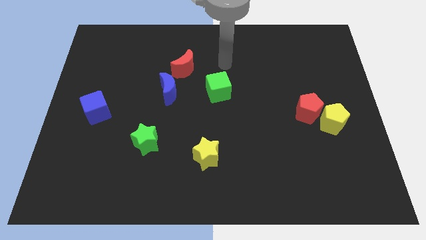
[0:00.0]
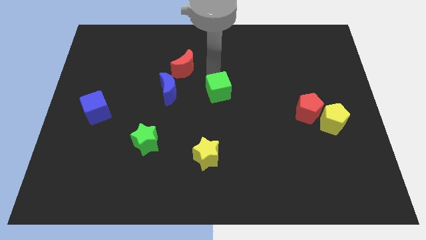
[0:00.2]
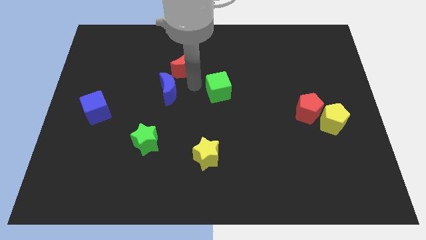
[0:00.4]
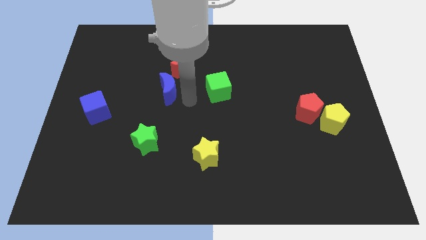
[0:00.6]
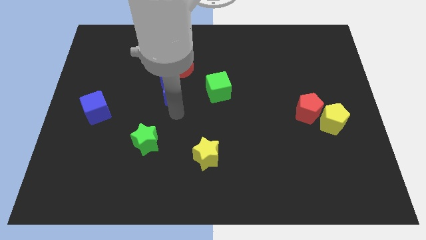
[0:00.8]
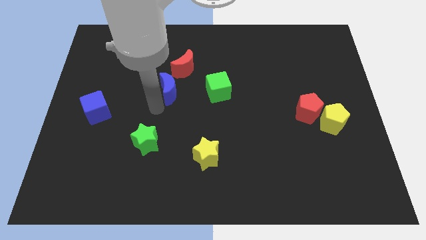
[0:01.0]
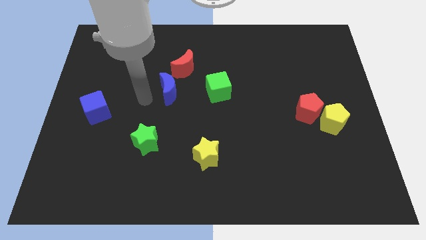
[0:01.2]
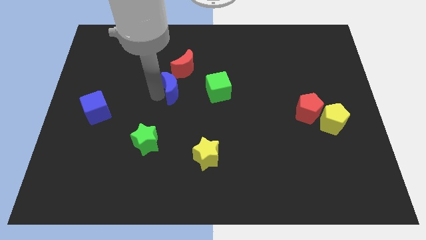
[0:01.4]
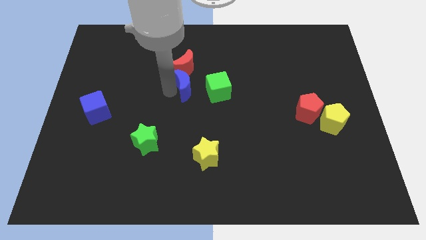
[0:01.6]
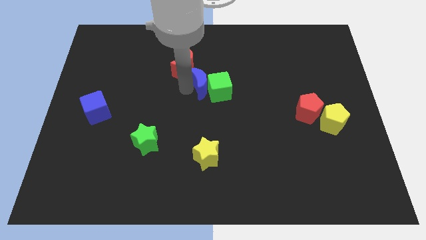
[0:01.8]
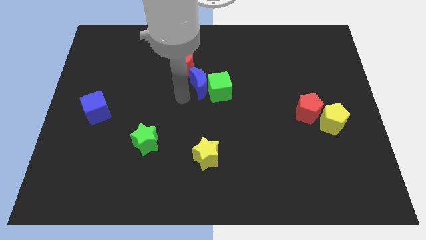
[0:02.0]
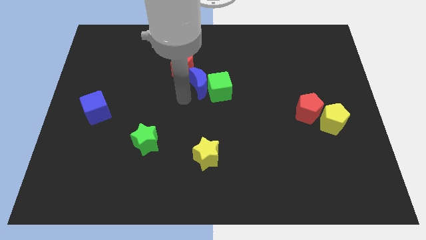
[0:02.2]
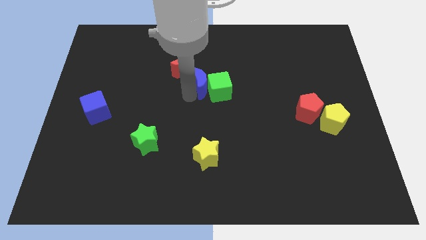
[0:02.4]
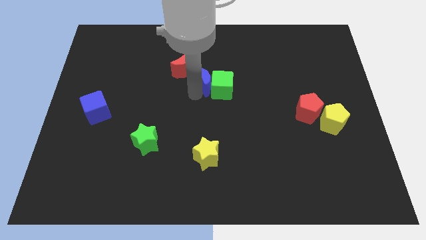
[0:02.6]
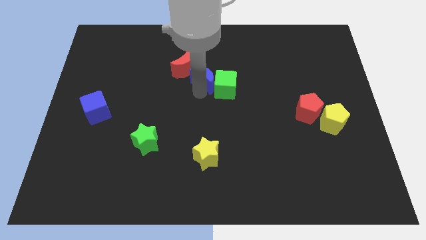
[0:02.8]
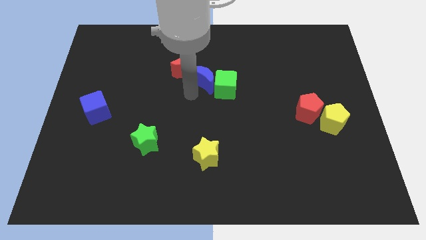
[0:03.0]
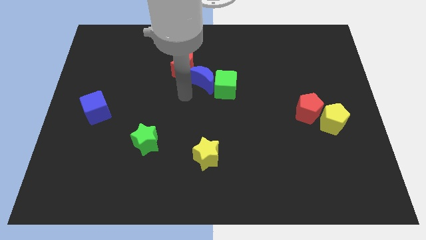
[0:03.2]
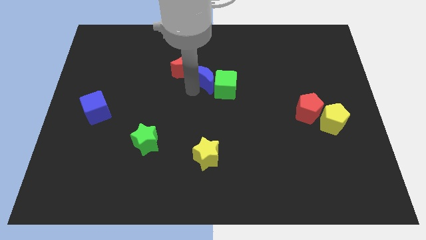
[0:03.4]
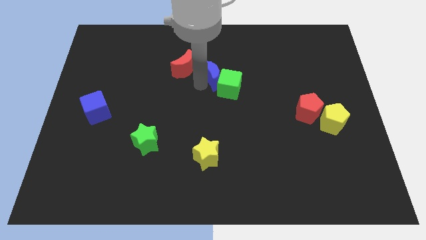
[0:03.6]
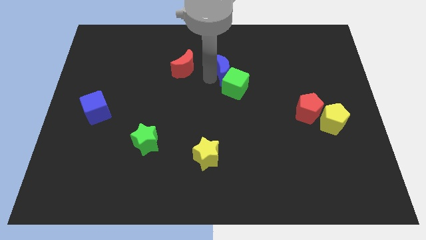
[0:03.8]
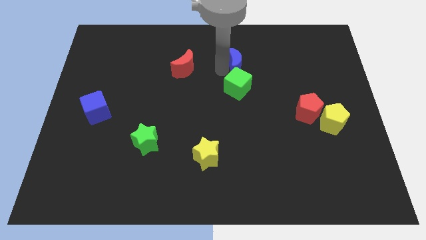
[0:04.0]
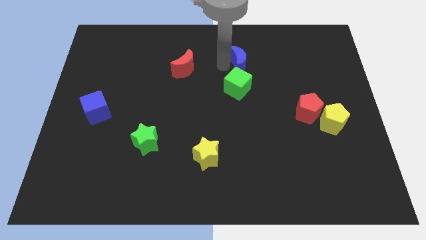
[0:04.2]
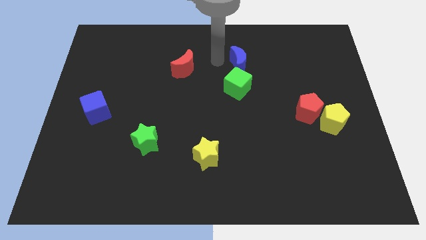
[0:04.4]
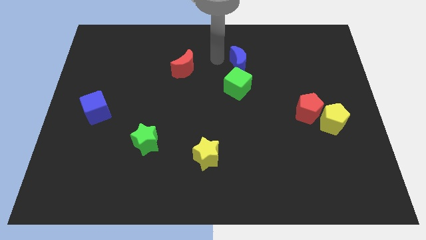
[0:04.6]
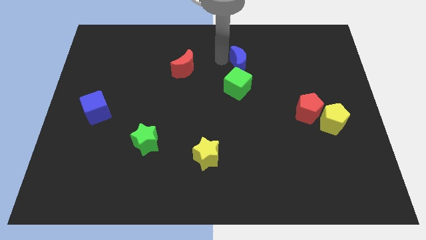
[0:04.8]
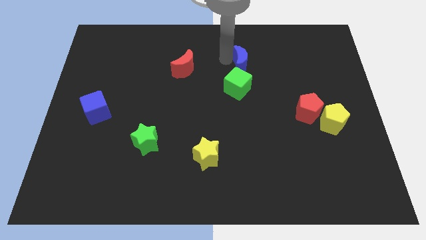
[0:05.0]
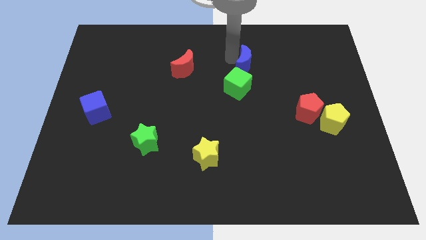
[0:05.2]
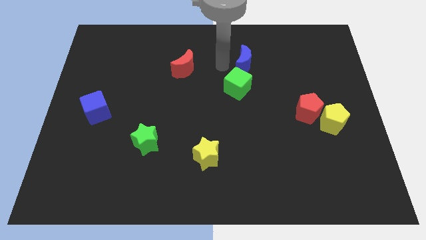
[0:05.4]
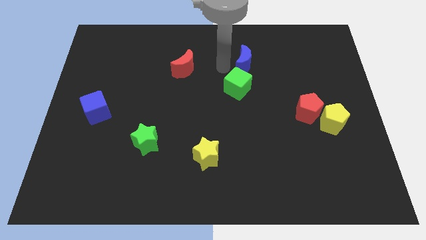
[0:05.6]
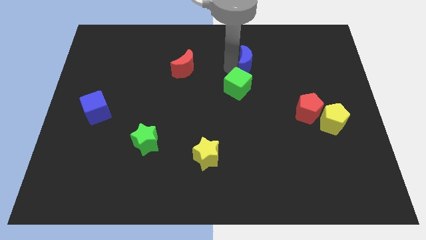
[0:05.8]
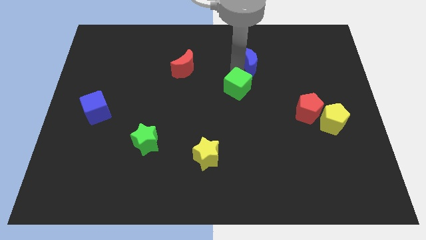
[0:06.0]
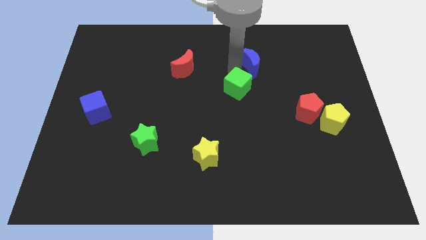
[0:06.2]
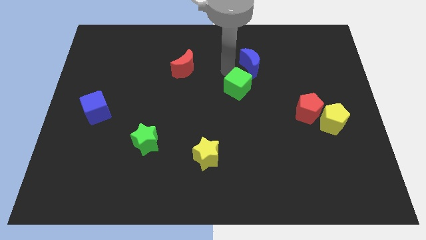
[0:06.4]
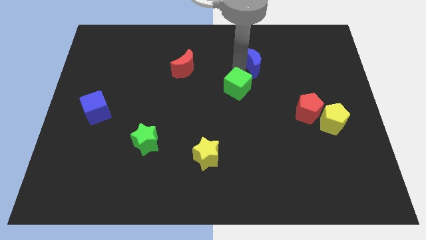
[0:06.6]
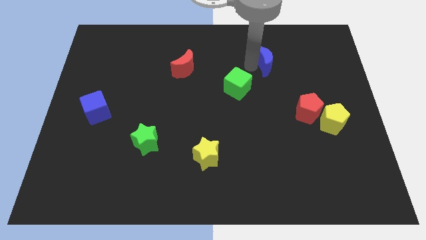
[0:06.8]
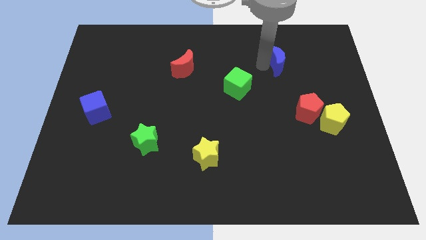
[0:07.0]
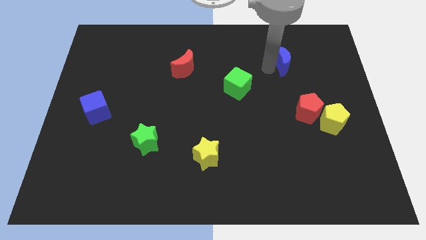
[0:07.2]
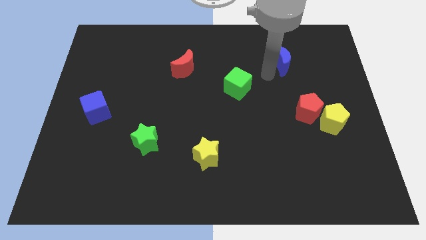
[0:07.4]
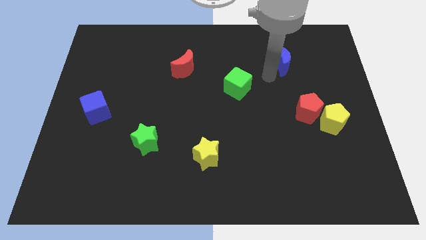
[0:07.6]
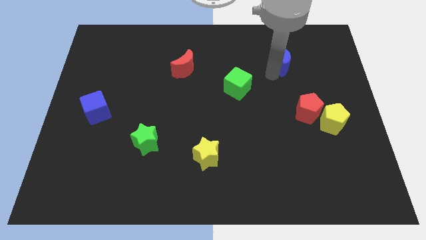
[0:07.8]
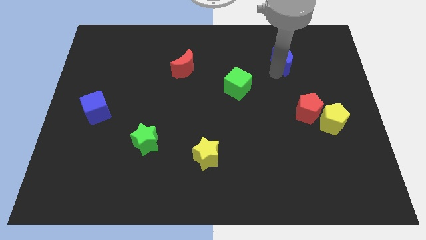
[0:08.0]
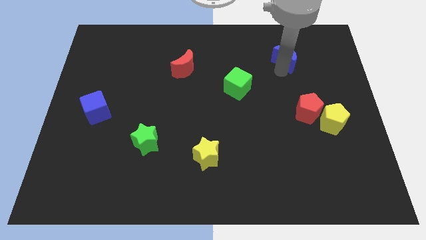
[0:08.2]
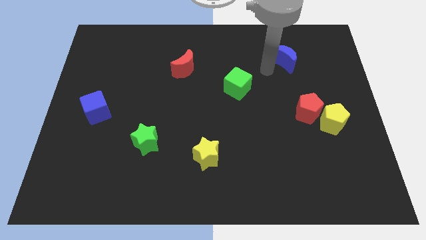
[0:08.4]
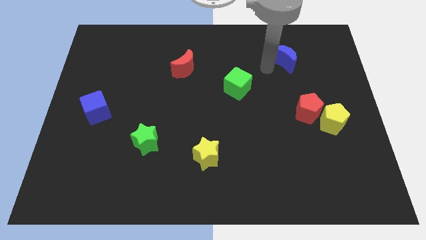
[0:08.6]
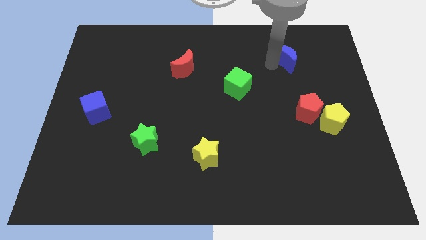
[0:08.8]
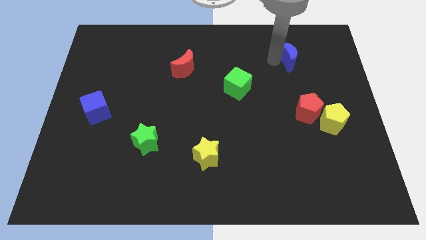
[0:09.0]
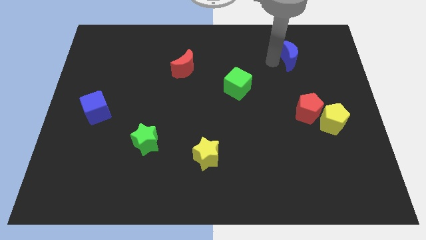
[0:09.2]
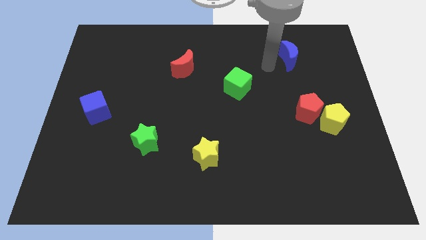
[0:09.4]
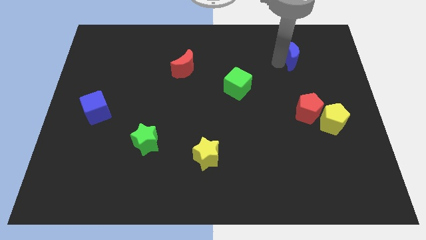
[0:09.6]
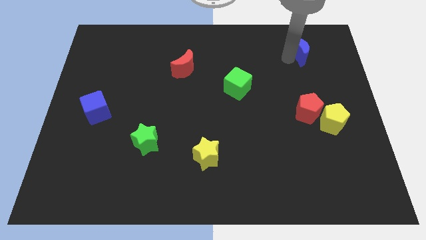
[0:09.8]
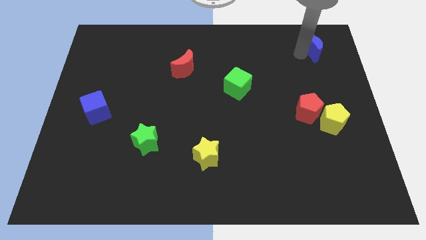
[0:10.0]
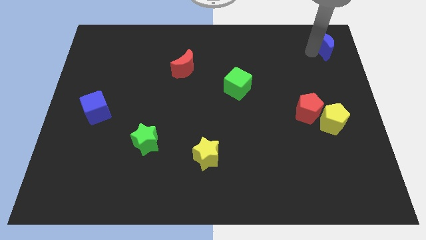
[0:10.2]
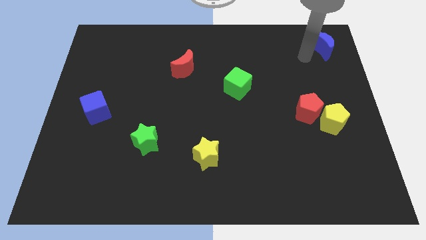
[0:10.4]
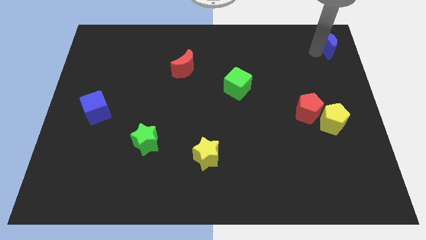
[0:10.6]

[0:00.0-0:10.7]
move the blue moon to the top right corner

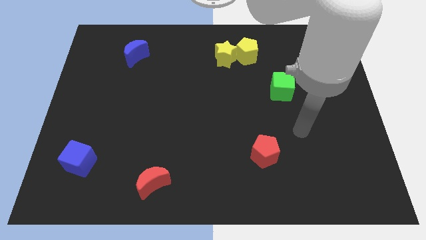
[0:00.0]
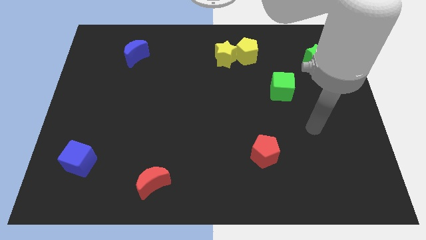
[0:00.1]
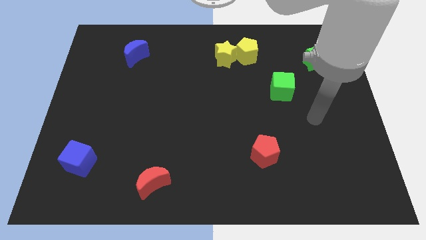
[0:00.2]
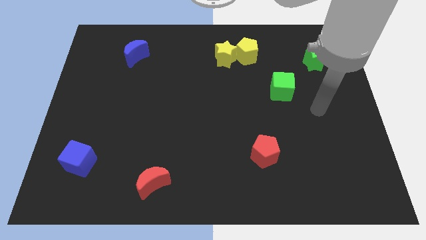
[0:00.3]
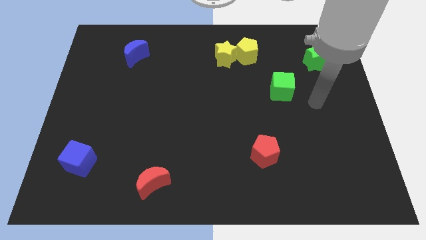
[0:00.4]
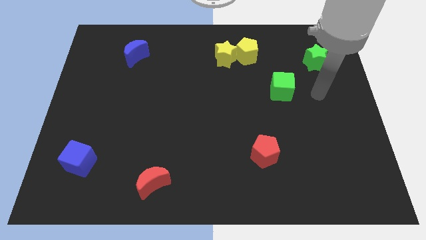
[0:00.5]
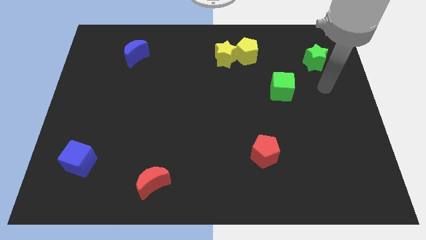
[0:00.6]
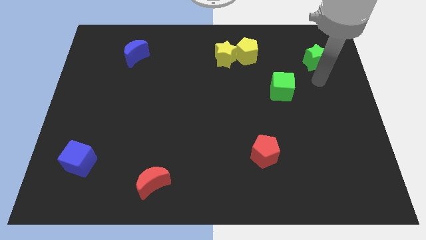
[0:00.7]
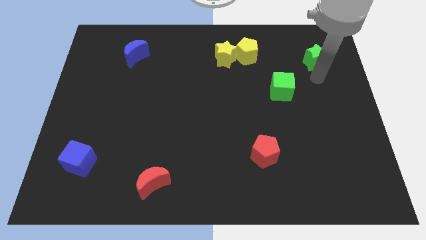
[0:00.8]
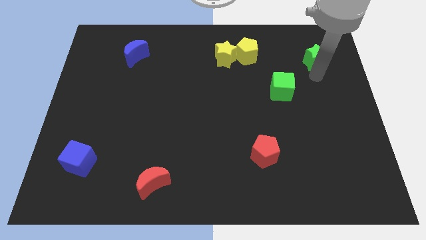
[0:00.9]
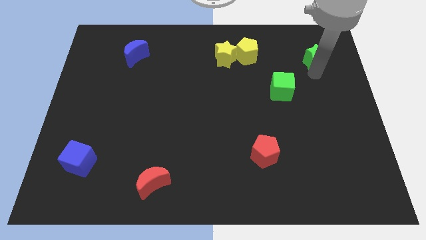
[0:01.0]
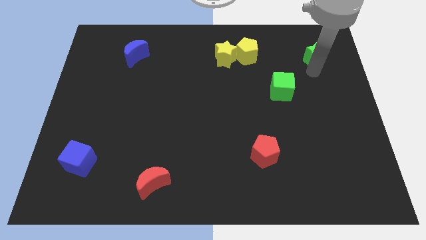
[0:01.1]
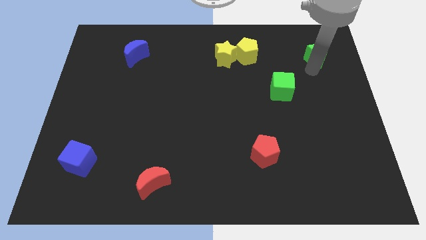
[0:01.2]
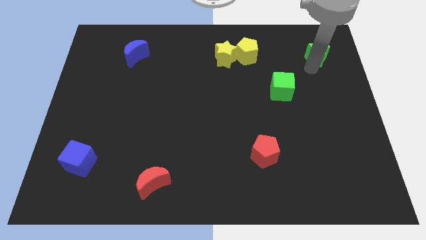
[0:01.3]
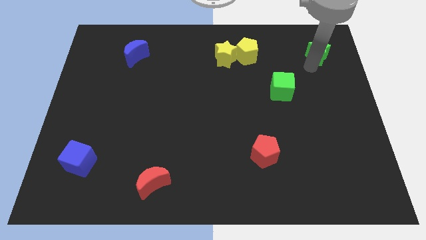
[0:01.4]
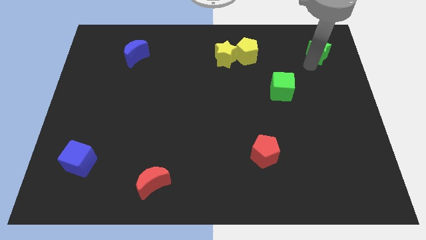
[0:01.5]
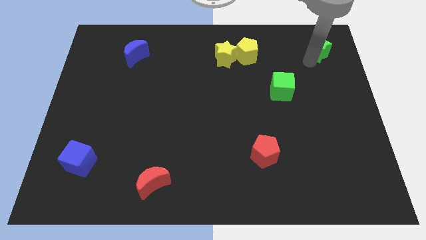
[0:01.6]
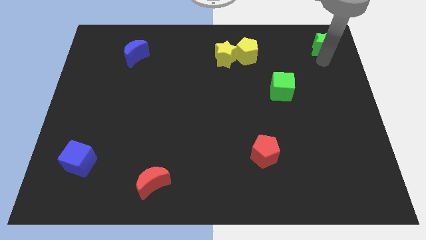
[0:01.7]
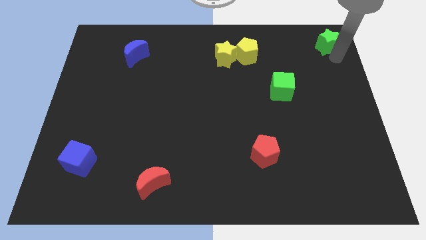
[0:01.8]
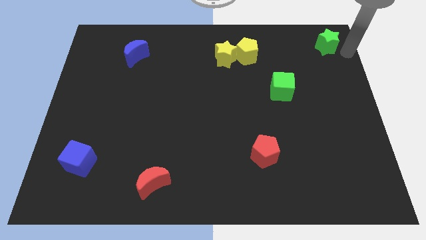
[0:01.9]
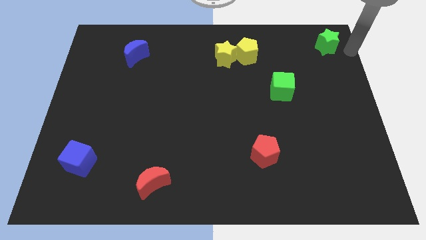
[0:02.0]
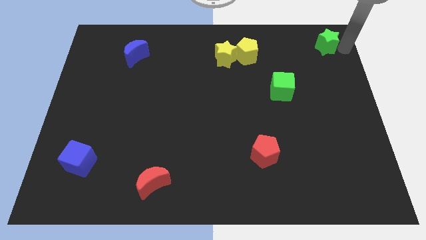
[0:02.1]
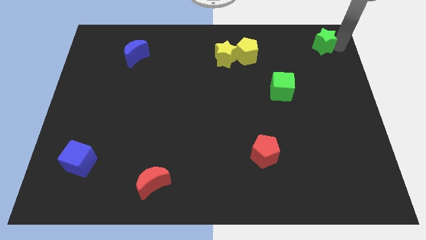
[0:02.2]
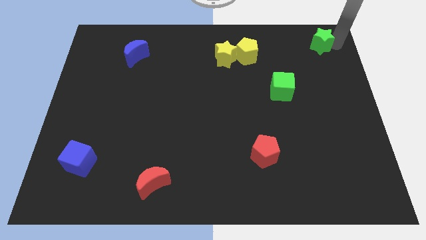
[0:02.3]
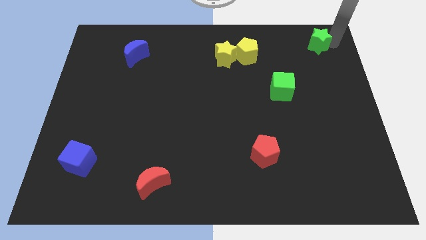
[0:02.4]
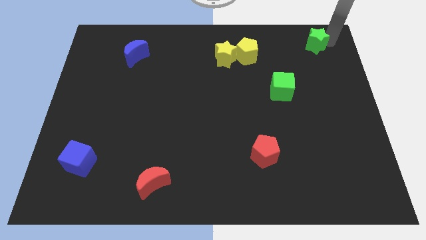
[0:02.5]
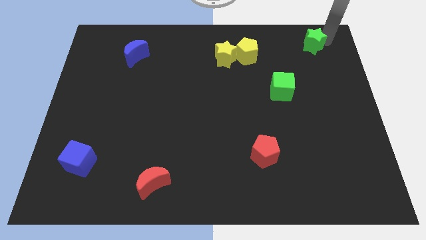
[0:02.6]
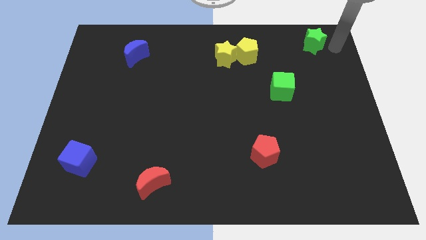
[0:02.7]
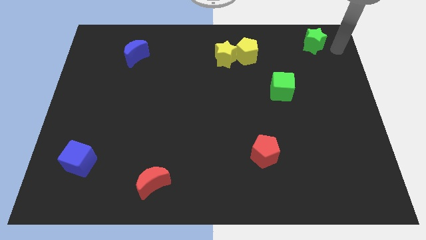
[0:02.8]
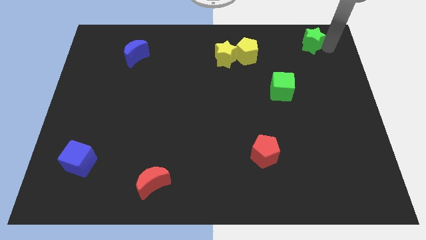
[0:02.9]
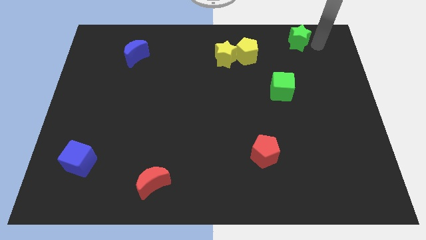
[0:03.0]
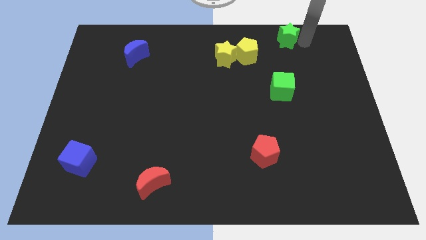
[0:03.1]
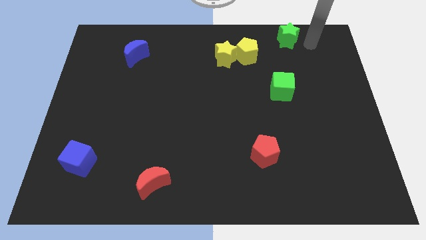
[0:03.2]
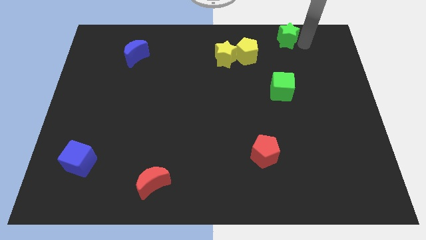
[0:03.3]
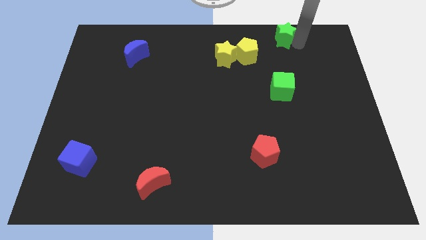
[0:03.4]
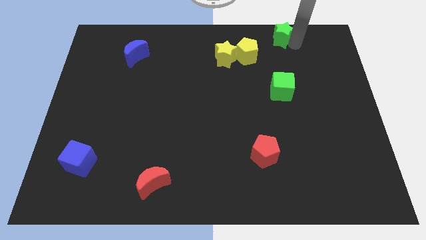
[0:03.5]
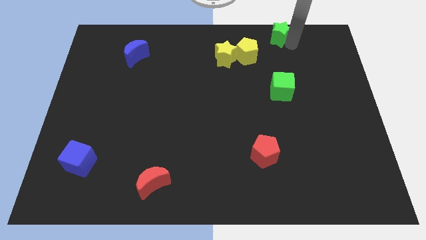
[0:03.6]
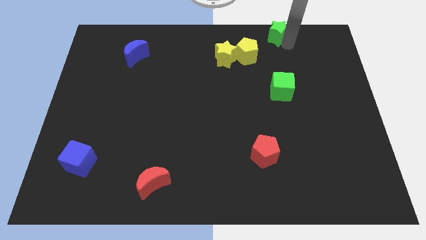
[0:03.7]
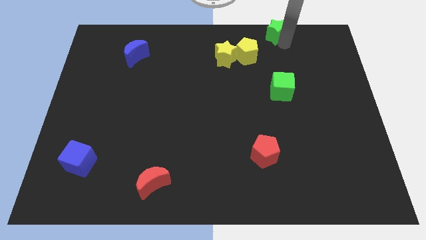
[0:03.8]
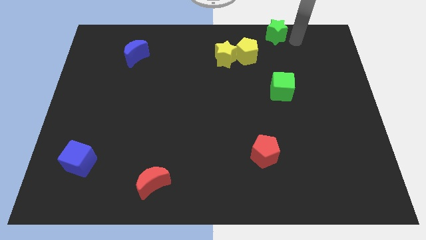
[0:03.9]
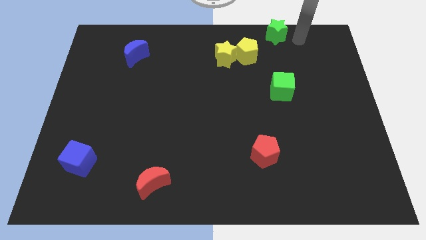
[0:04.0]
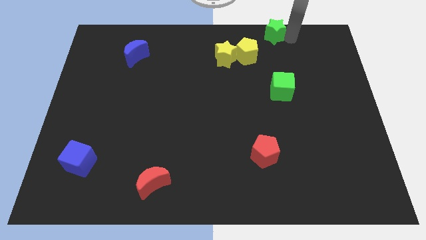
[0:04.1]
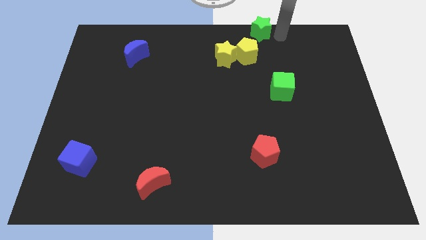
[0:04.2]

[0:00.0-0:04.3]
slide the green star to the top side
